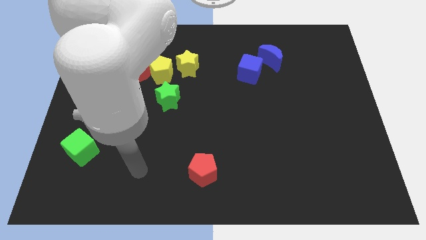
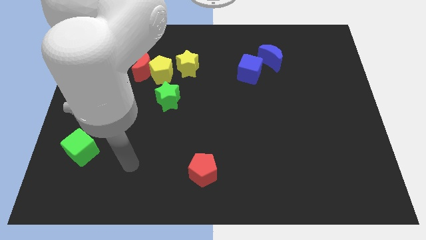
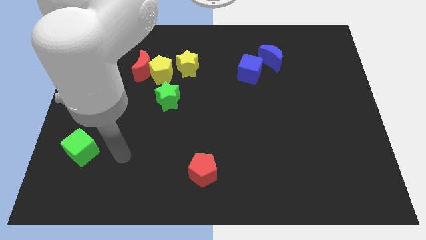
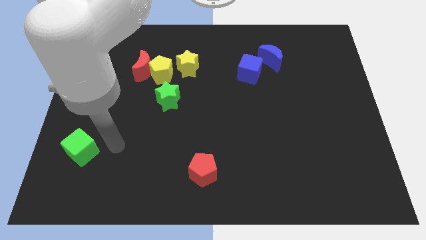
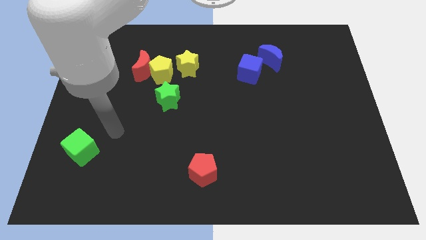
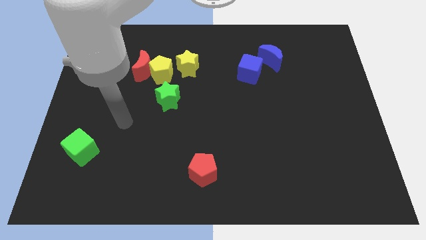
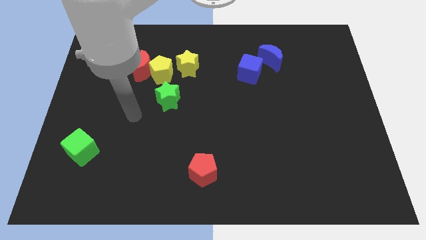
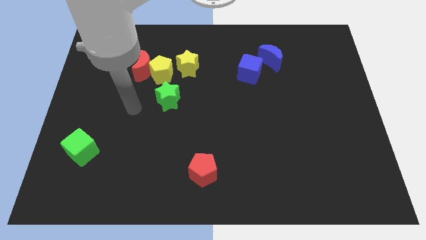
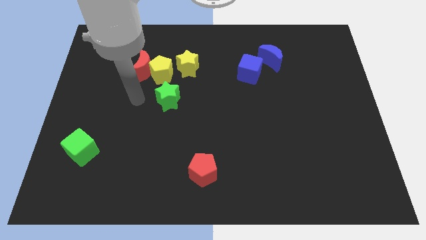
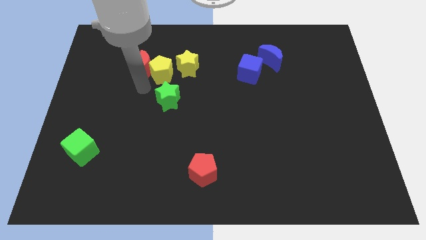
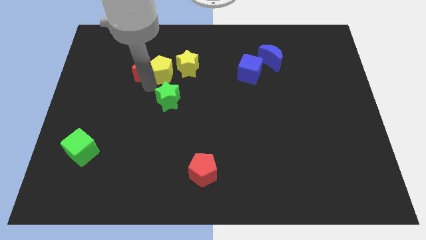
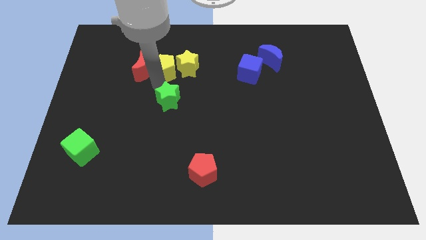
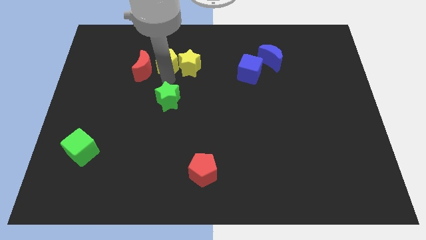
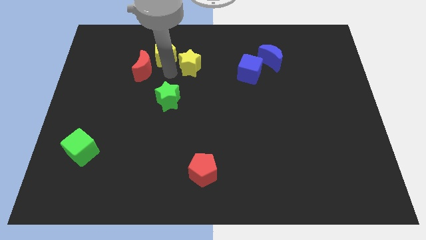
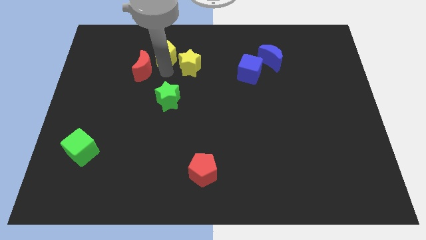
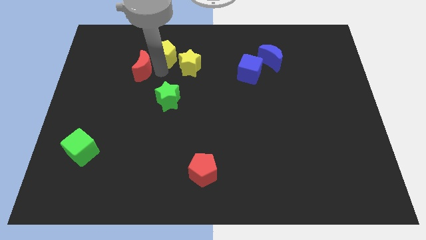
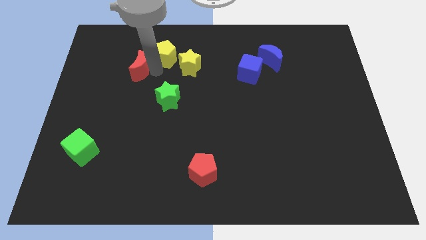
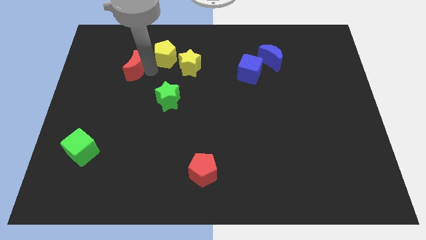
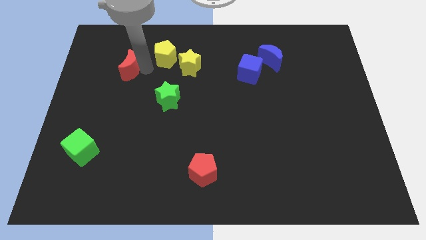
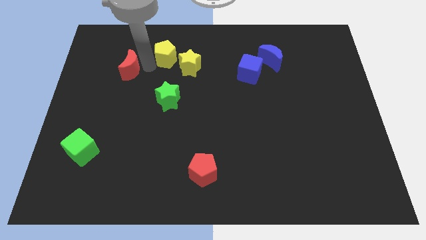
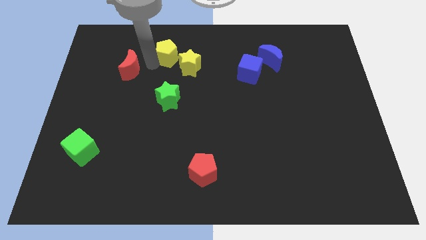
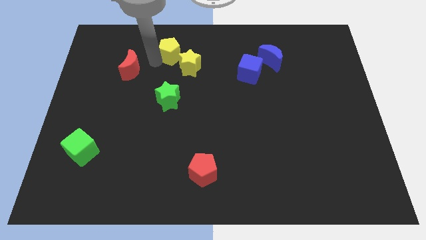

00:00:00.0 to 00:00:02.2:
separate the red moon from the yellow pentagon

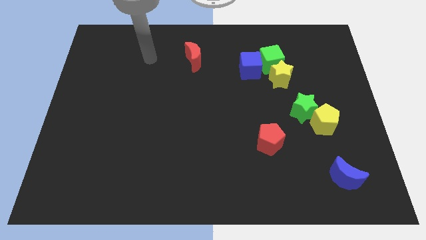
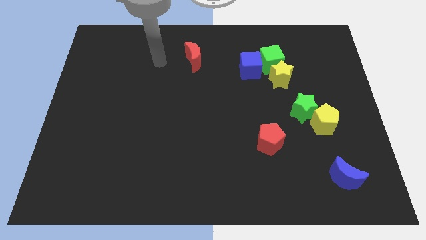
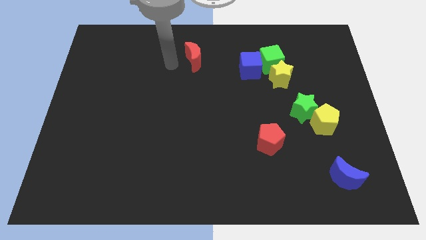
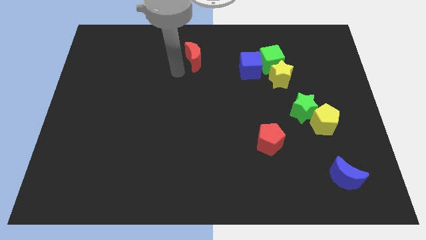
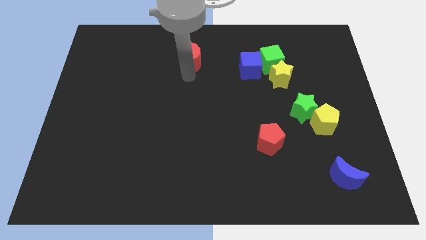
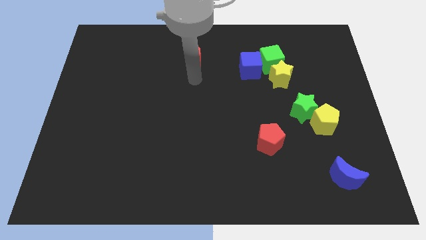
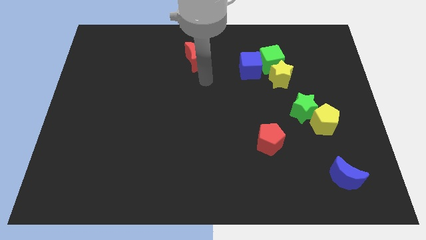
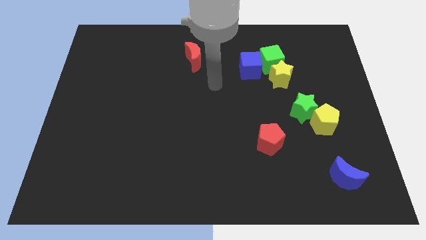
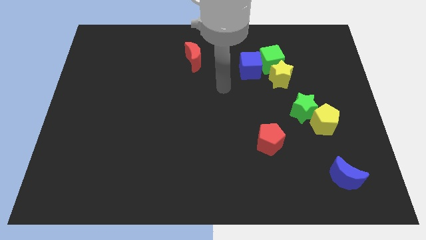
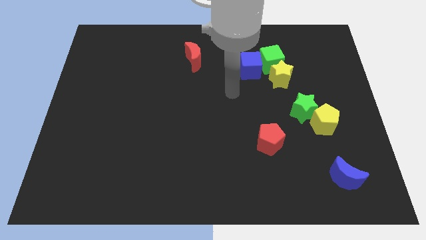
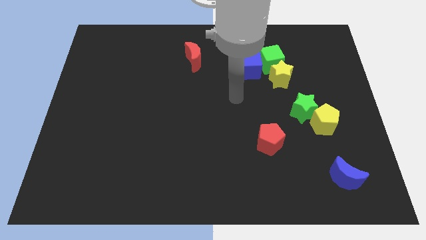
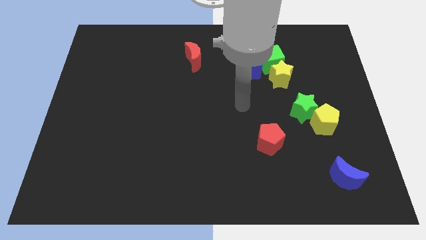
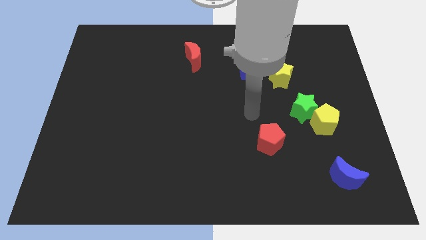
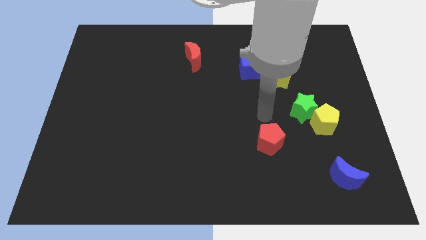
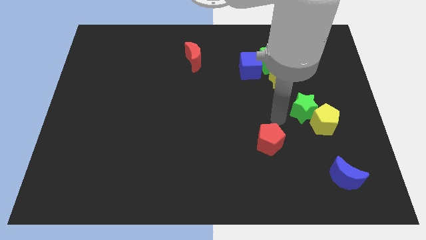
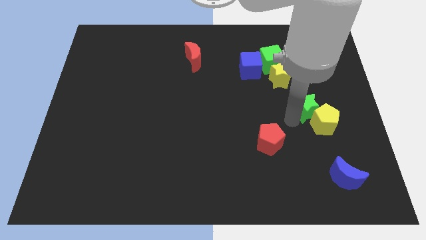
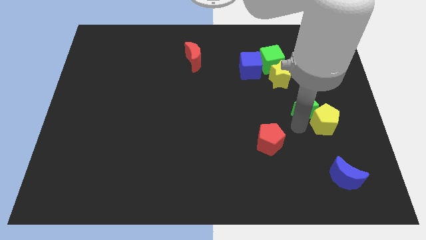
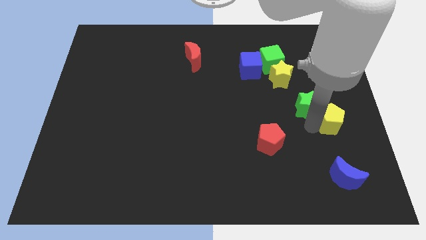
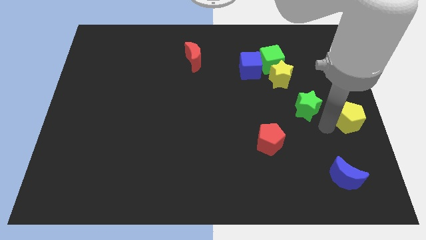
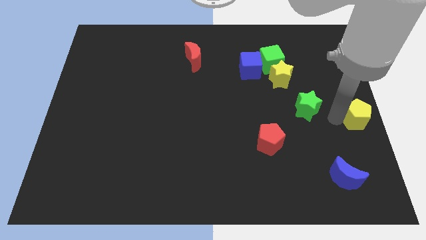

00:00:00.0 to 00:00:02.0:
pull the green star apart from the yellow pentagon

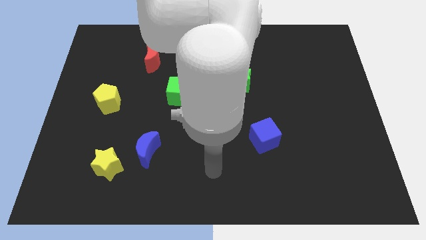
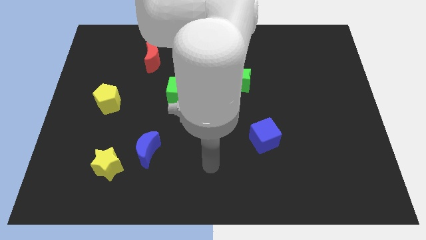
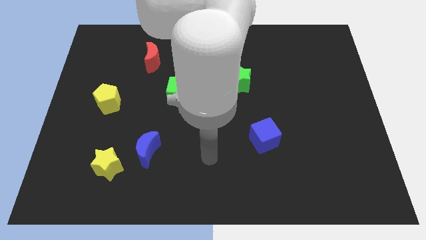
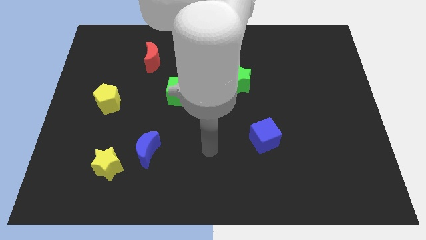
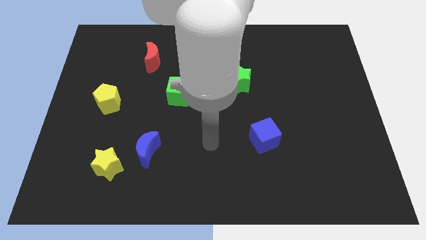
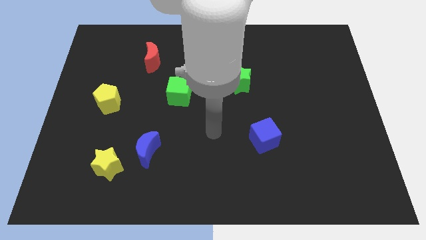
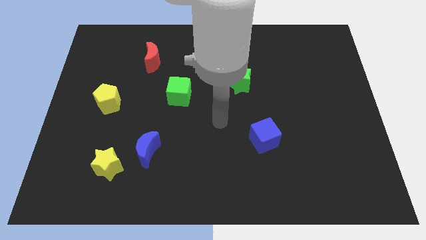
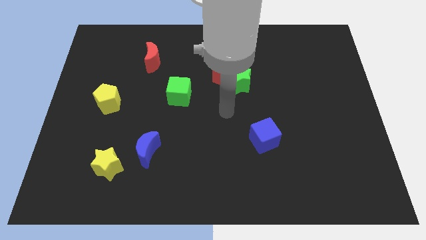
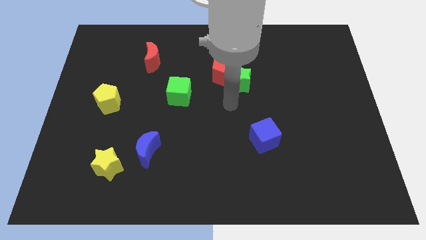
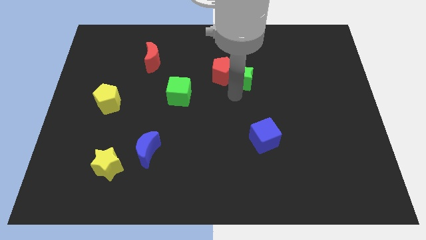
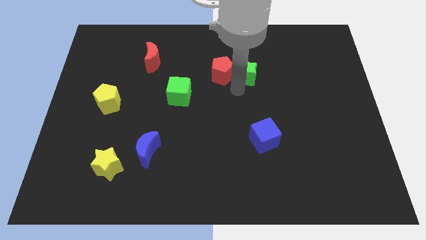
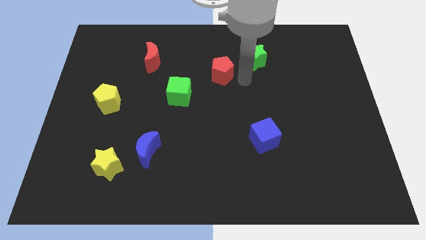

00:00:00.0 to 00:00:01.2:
move the red pentagon away from the green star

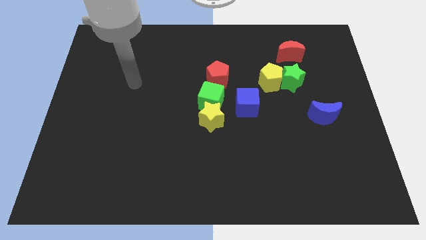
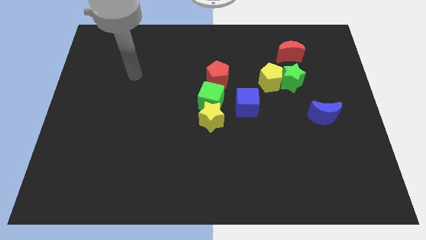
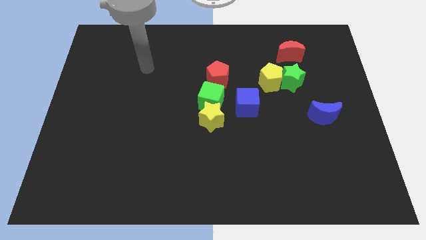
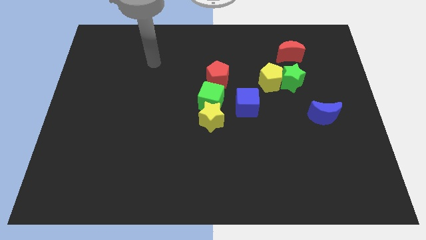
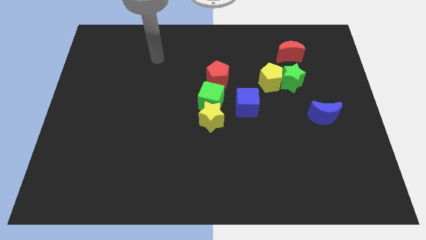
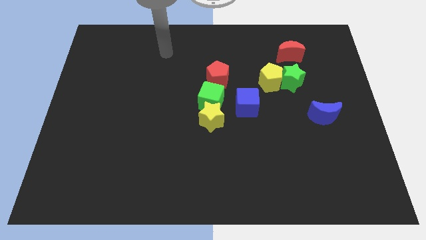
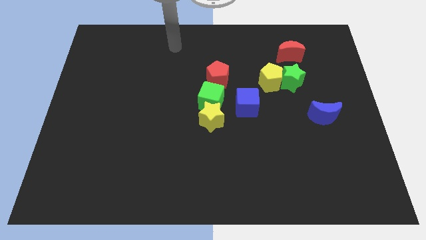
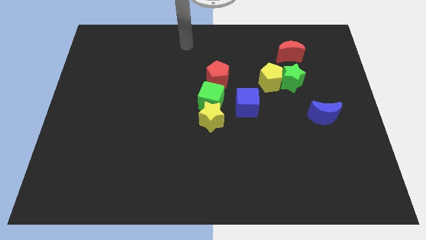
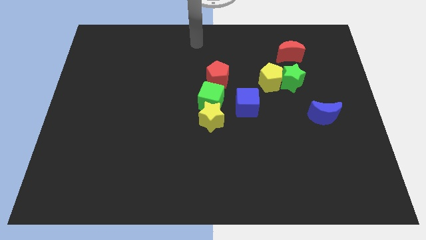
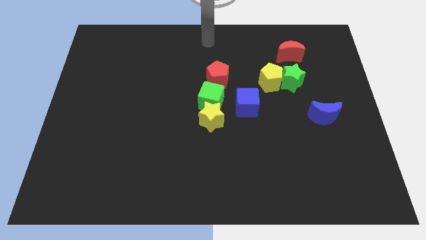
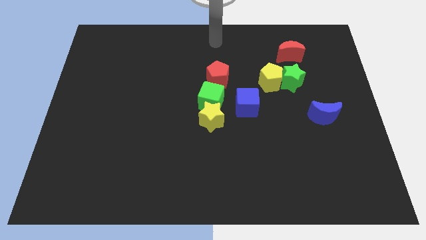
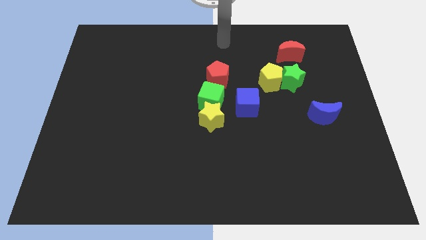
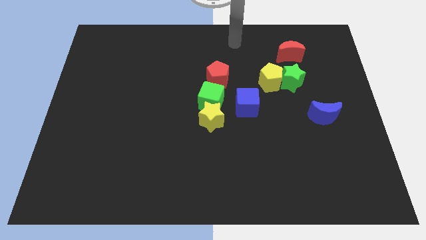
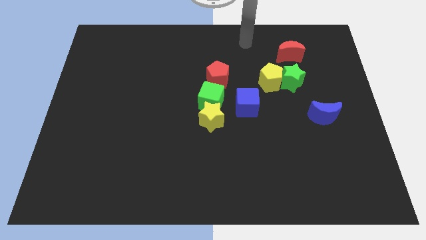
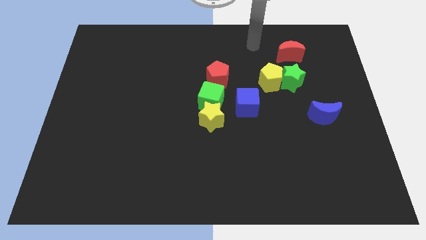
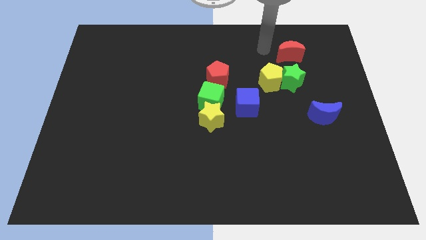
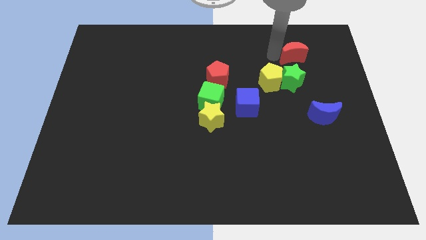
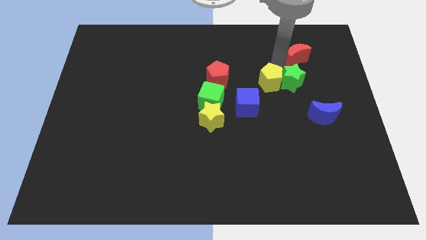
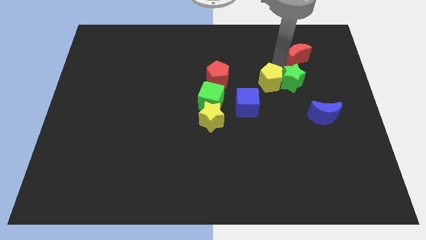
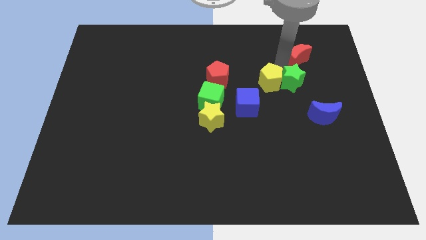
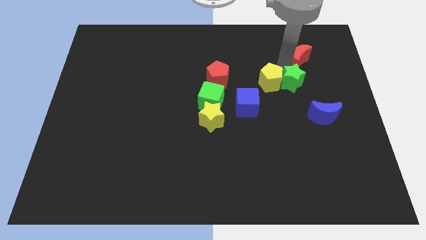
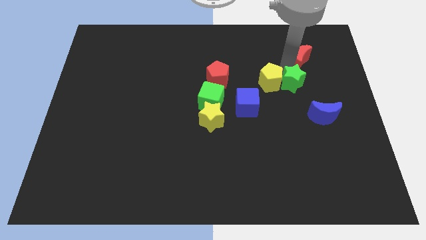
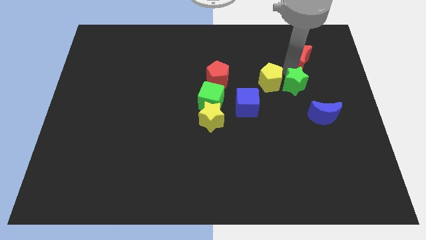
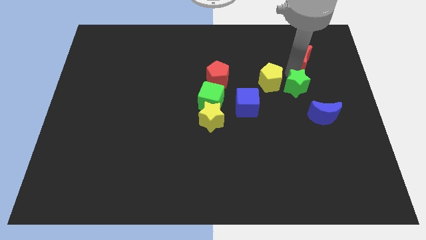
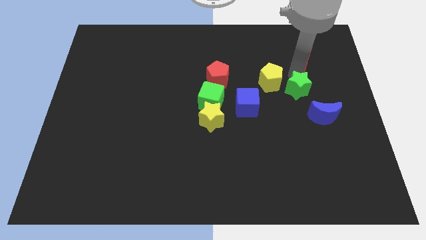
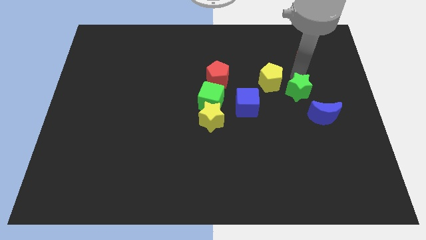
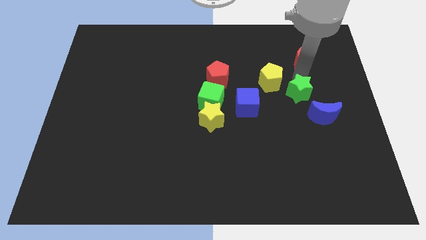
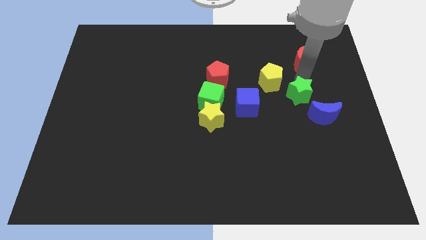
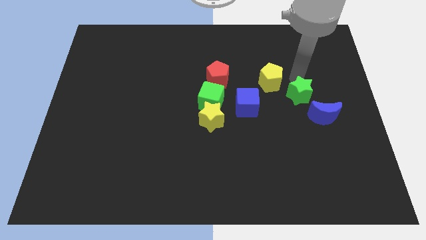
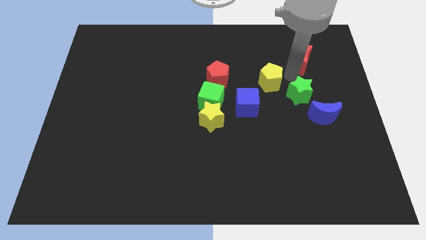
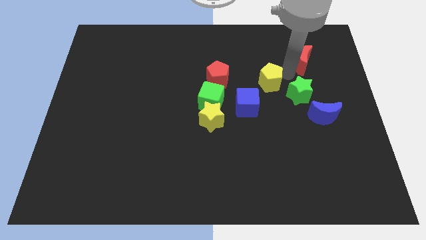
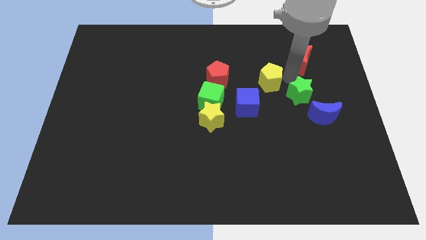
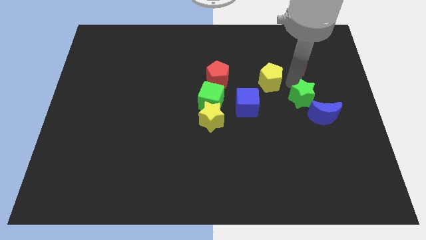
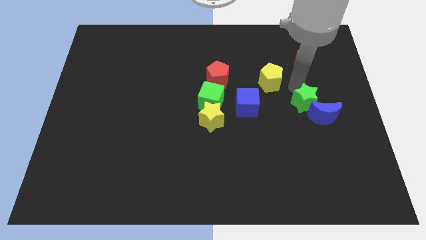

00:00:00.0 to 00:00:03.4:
pull the green star apart from the yellow pentagon and red moon

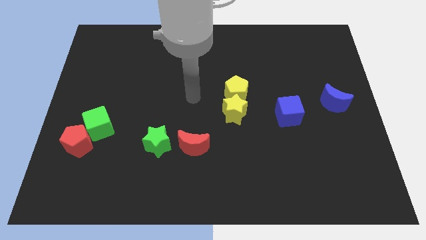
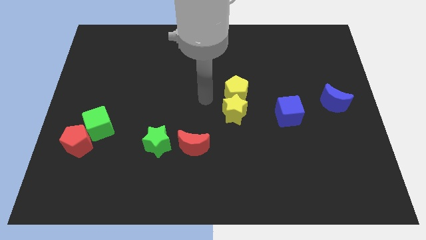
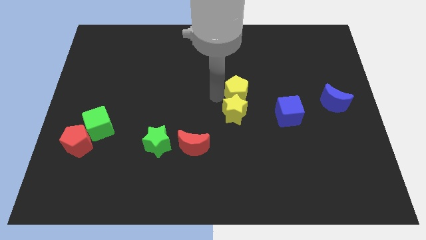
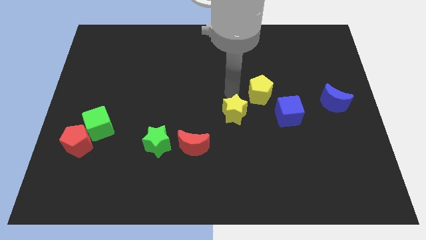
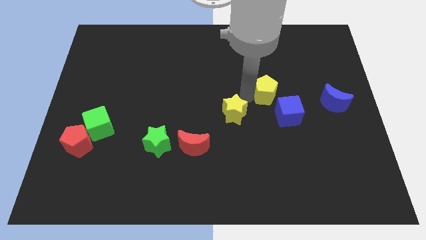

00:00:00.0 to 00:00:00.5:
move the yellow star away from the yellow pentagon

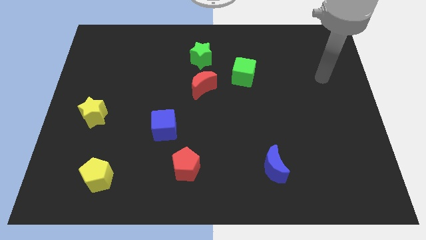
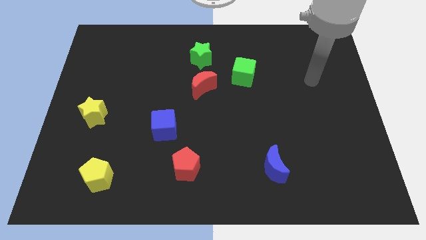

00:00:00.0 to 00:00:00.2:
move the red moon away from the green star
